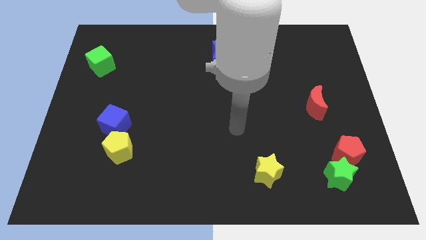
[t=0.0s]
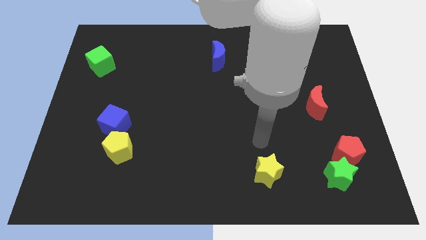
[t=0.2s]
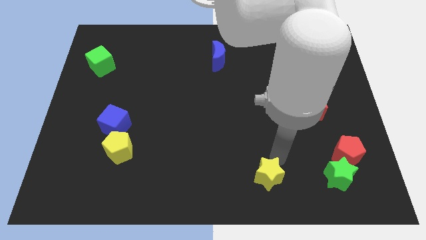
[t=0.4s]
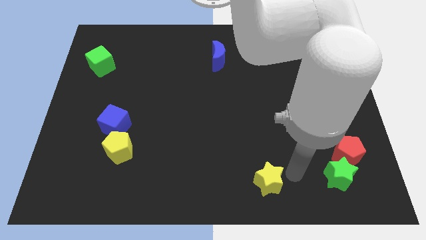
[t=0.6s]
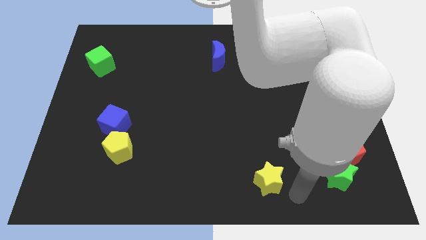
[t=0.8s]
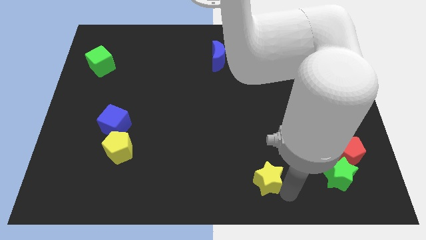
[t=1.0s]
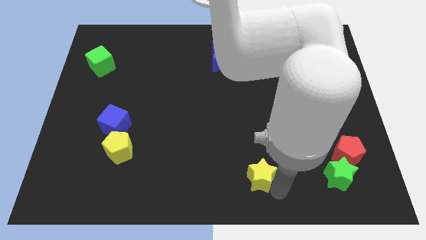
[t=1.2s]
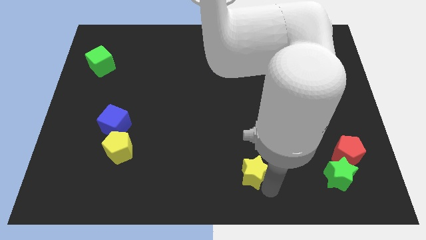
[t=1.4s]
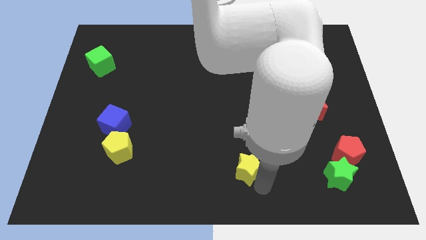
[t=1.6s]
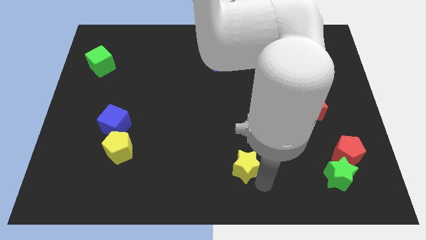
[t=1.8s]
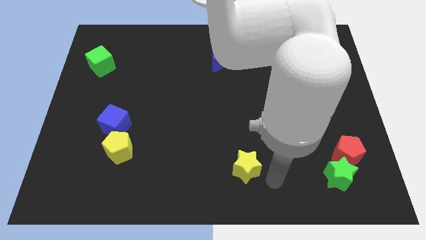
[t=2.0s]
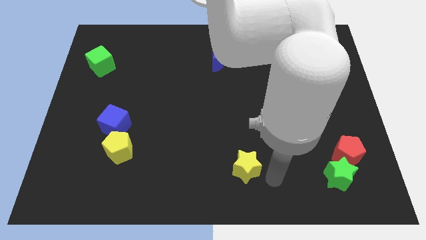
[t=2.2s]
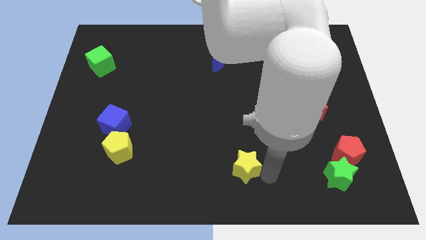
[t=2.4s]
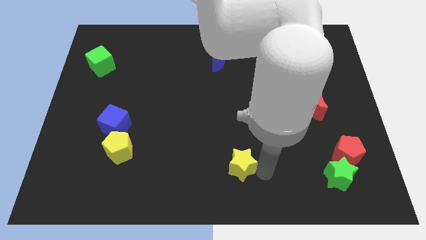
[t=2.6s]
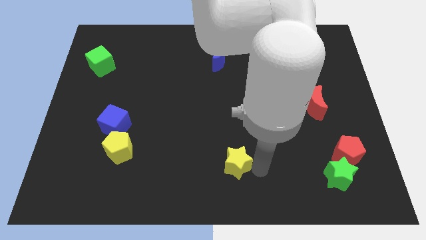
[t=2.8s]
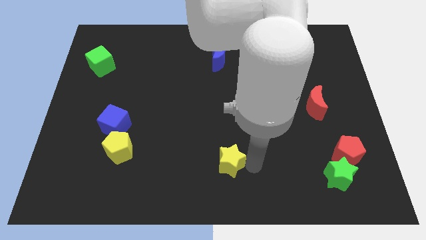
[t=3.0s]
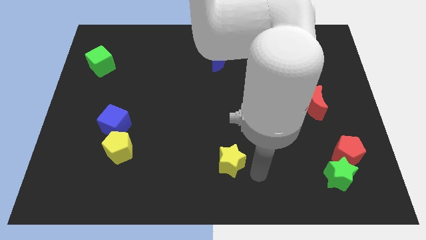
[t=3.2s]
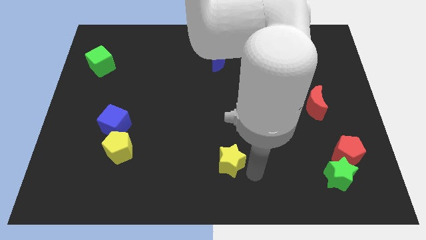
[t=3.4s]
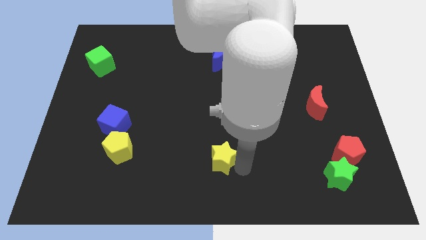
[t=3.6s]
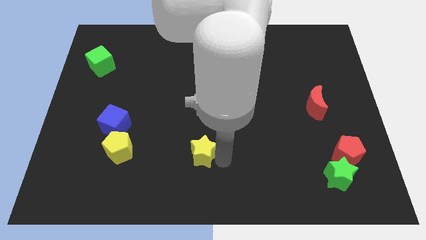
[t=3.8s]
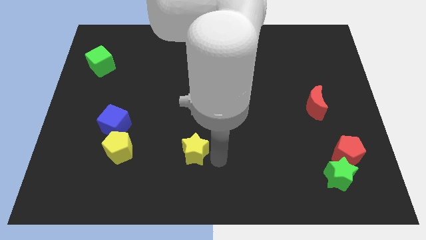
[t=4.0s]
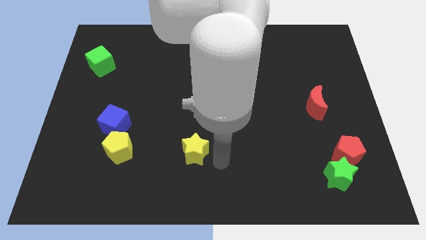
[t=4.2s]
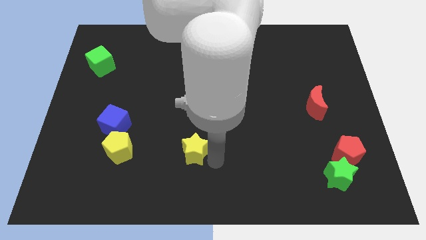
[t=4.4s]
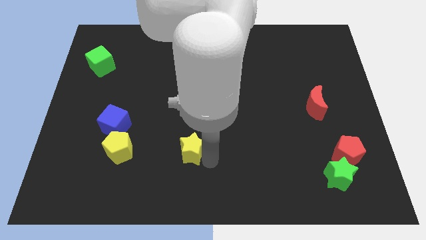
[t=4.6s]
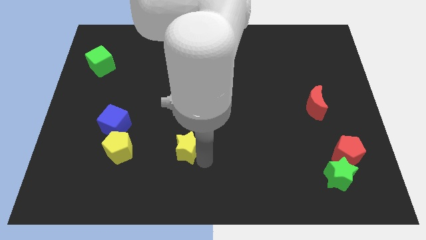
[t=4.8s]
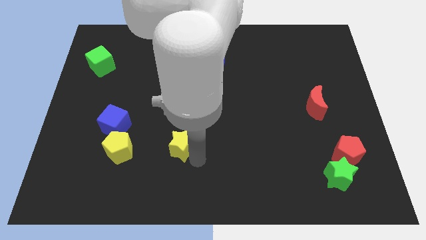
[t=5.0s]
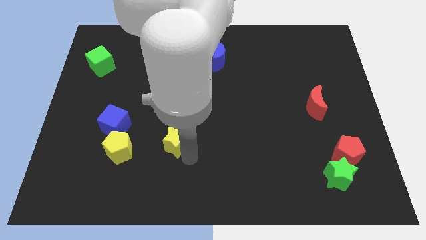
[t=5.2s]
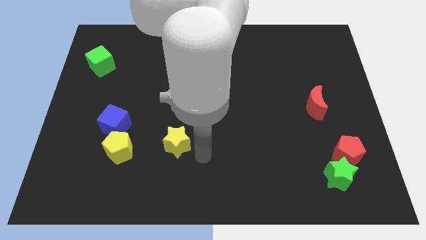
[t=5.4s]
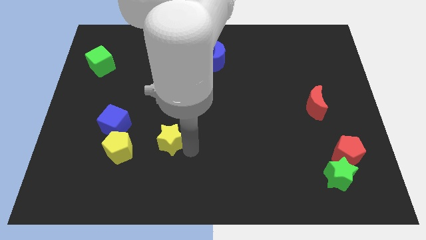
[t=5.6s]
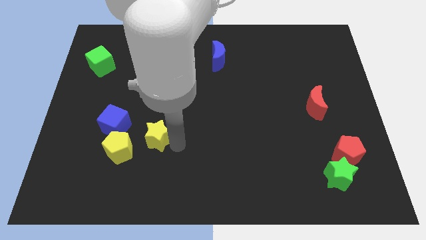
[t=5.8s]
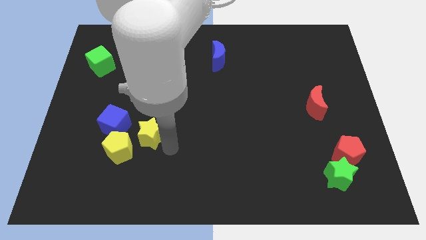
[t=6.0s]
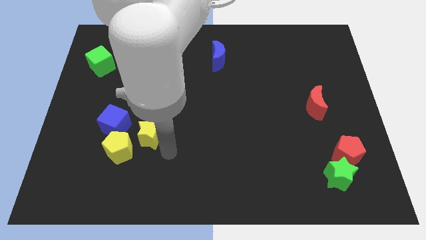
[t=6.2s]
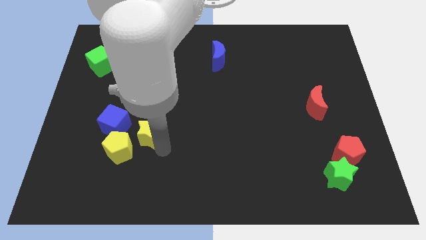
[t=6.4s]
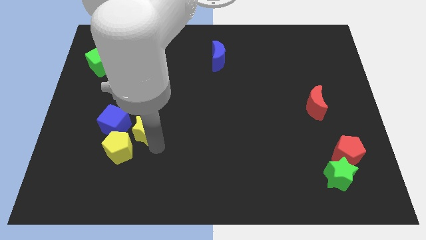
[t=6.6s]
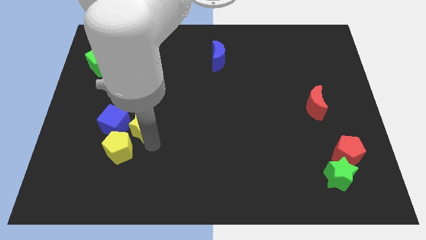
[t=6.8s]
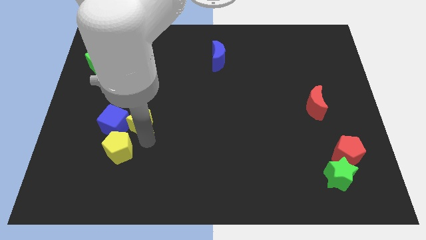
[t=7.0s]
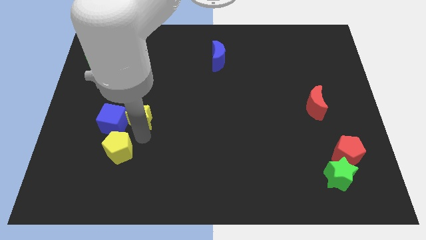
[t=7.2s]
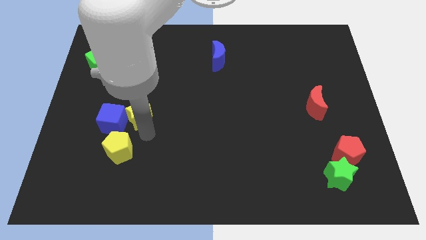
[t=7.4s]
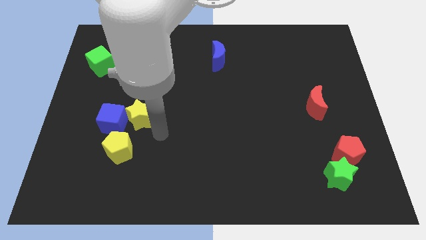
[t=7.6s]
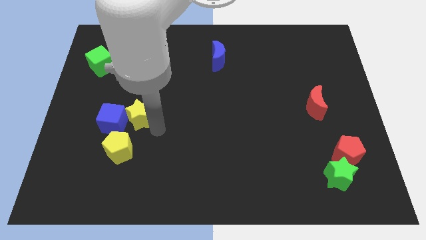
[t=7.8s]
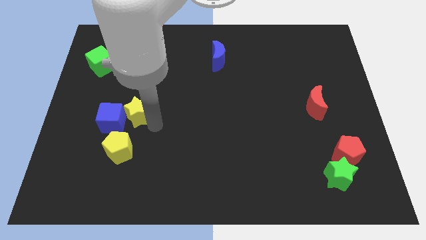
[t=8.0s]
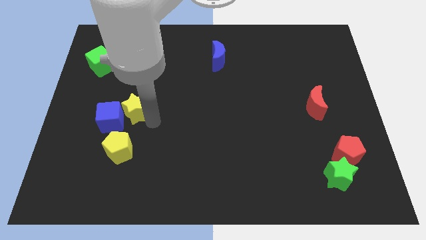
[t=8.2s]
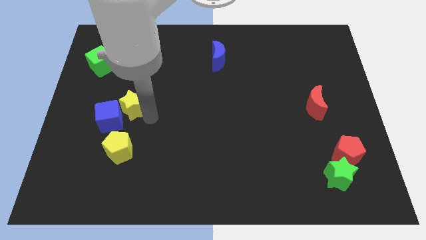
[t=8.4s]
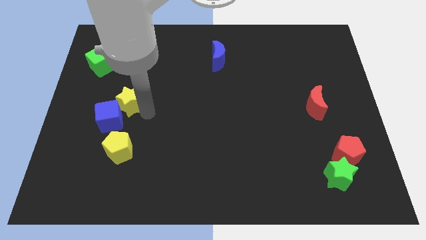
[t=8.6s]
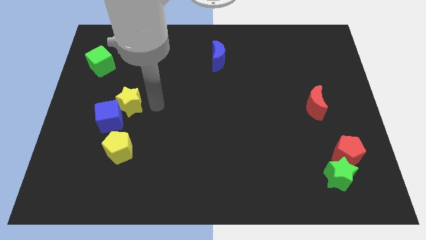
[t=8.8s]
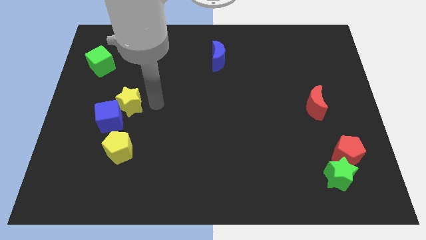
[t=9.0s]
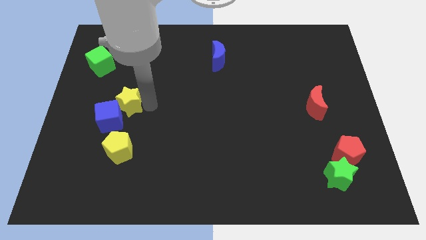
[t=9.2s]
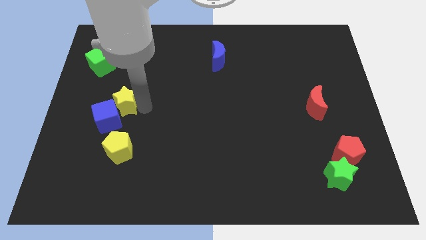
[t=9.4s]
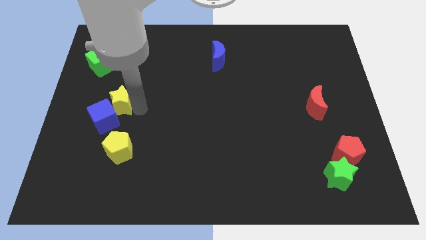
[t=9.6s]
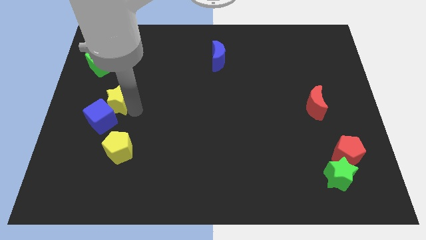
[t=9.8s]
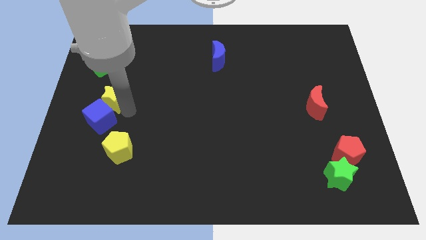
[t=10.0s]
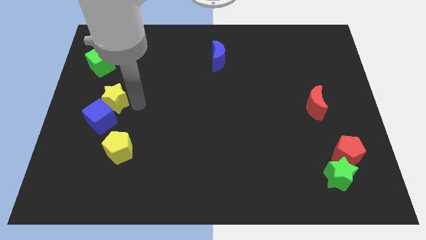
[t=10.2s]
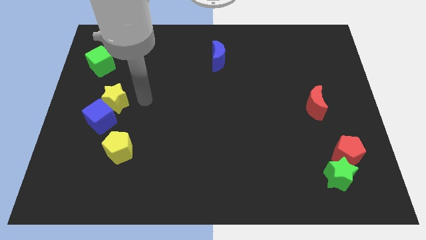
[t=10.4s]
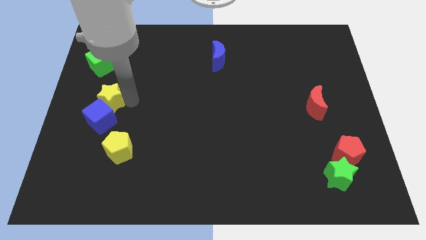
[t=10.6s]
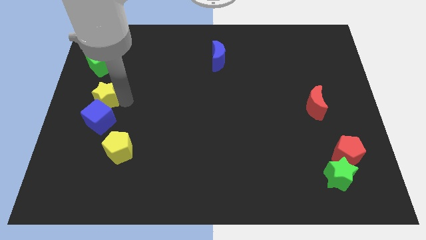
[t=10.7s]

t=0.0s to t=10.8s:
slide the yellow star to the left side of the board

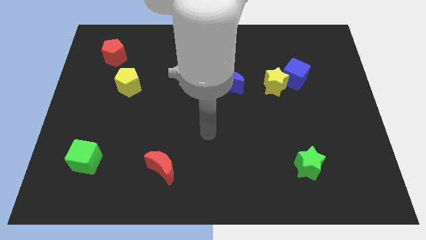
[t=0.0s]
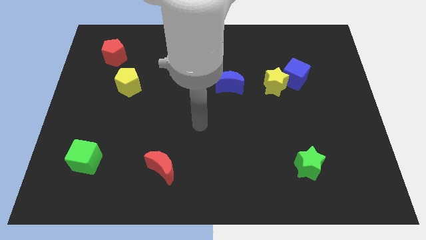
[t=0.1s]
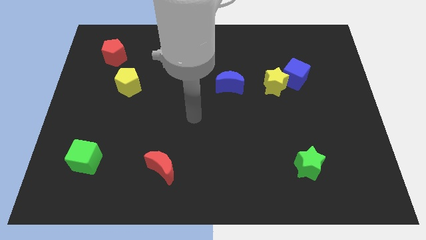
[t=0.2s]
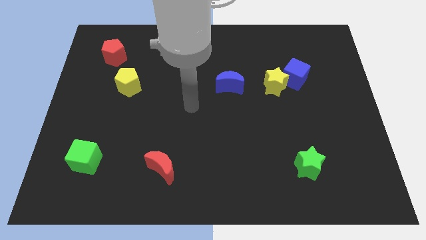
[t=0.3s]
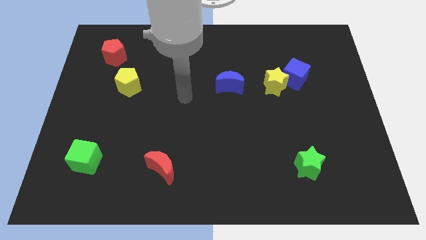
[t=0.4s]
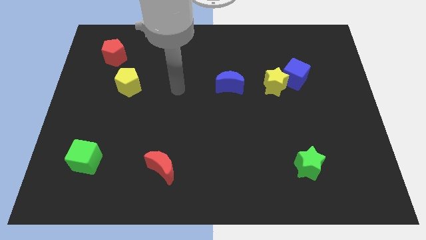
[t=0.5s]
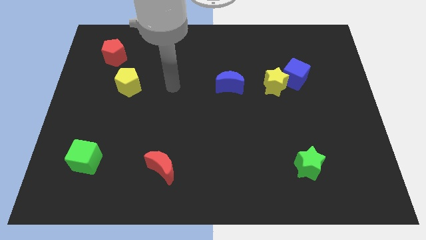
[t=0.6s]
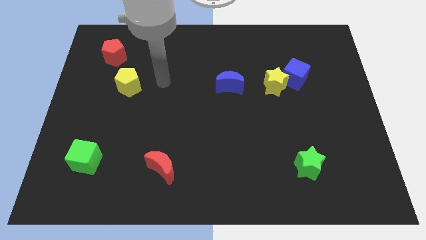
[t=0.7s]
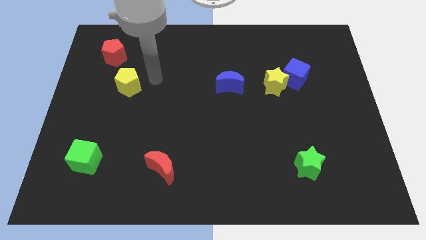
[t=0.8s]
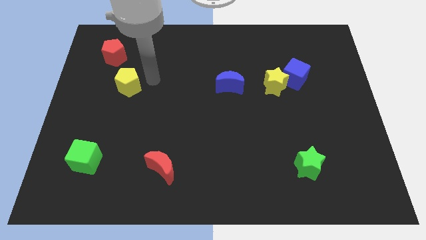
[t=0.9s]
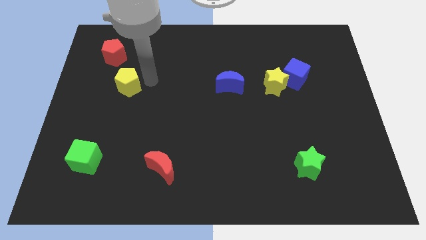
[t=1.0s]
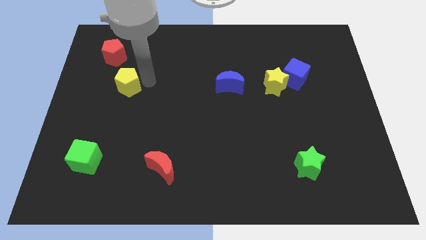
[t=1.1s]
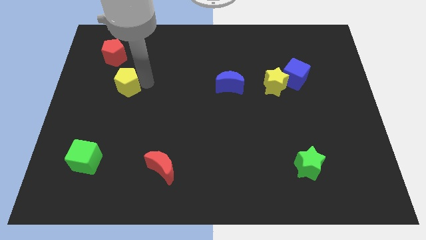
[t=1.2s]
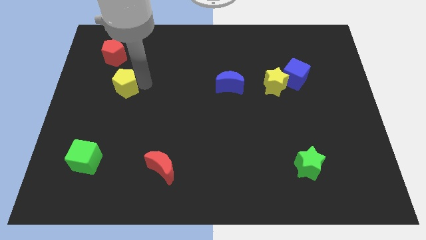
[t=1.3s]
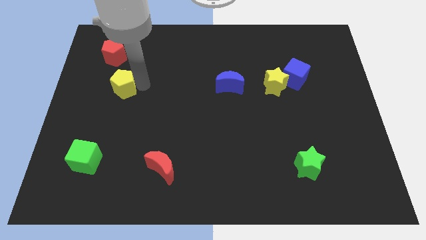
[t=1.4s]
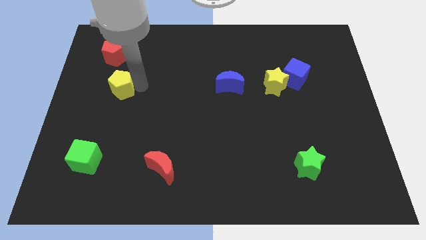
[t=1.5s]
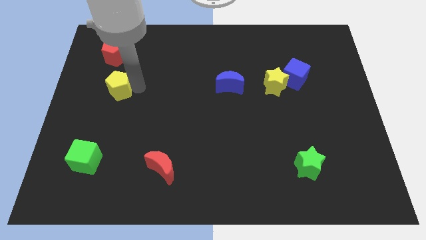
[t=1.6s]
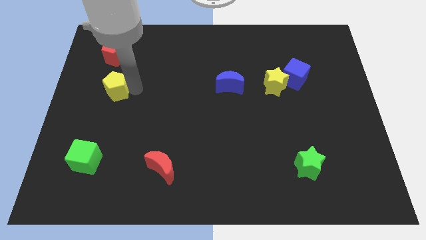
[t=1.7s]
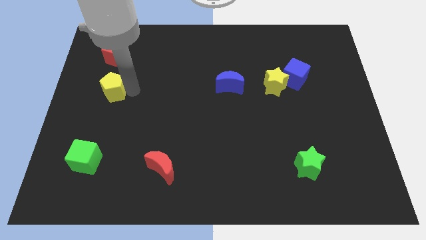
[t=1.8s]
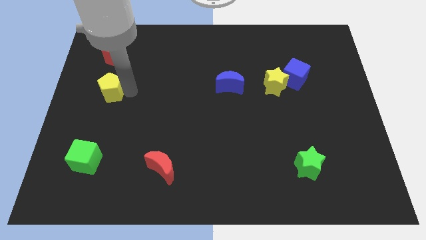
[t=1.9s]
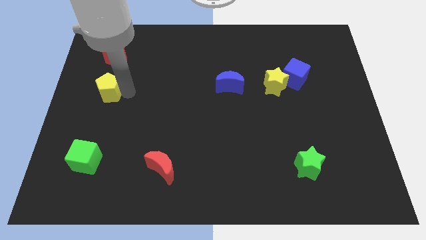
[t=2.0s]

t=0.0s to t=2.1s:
push the yellow pentagon to the center left
